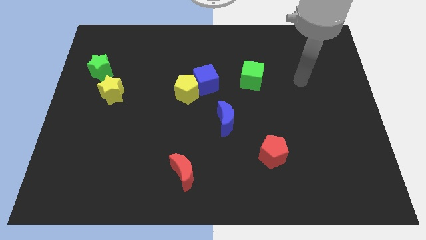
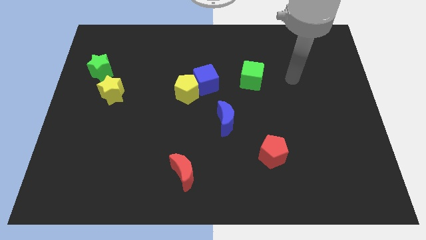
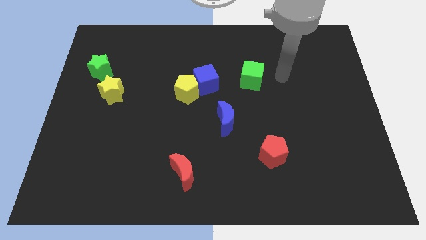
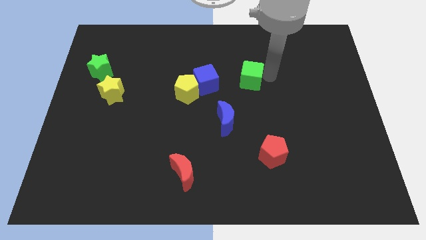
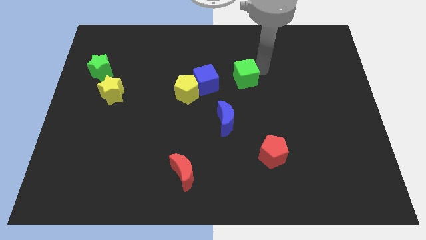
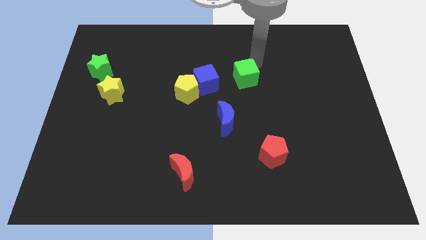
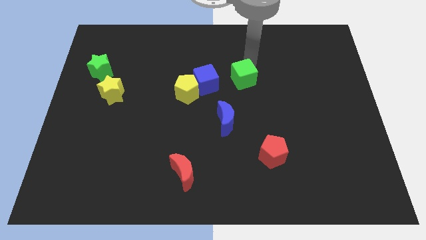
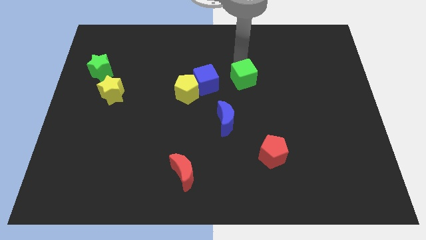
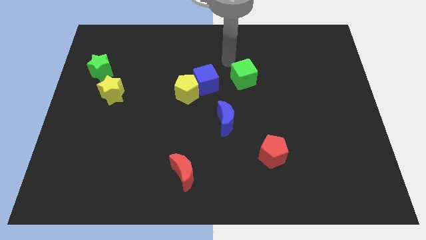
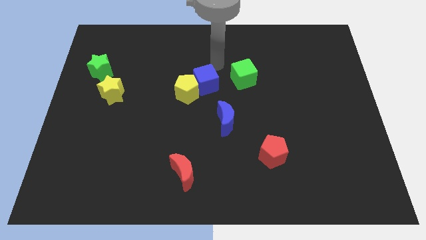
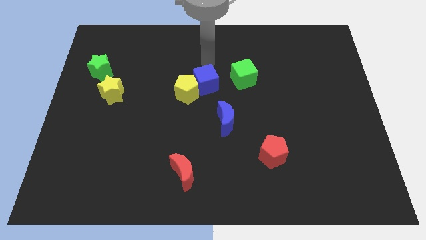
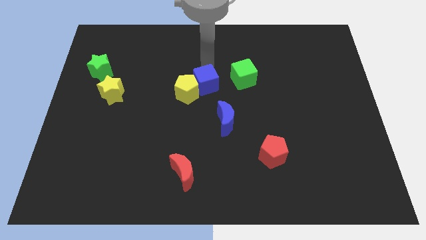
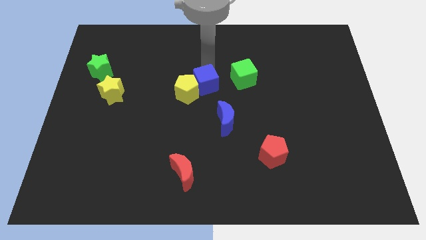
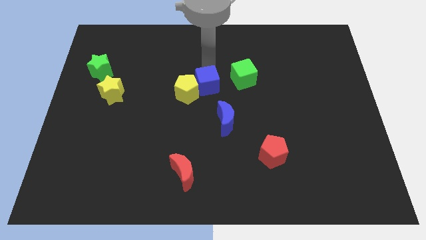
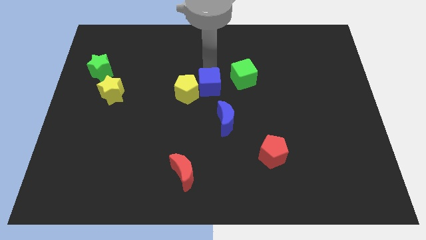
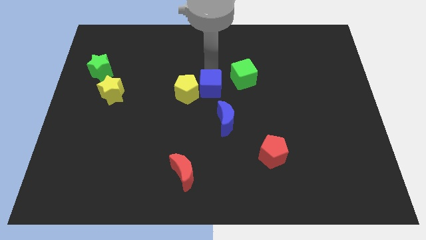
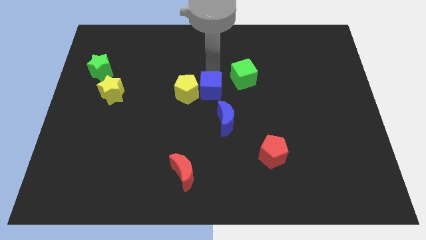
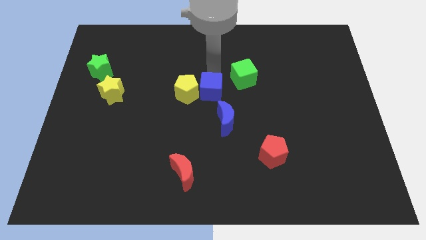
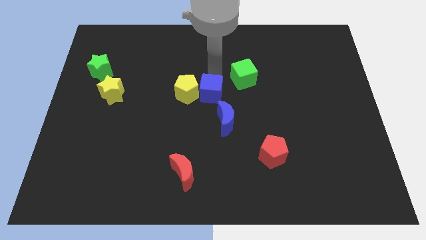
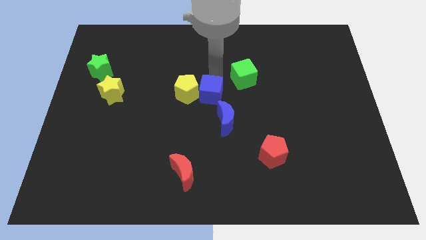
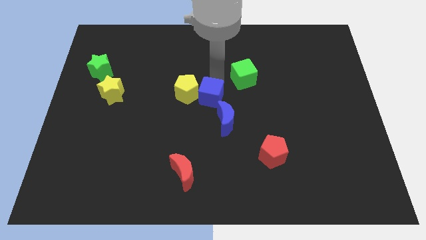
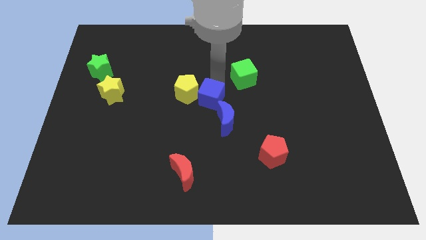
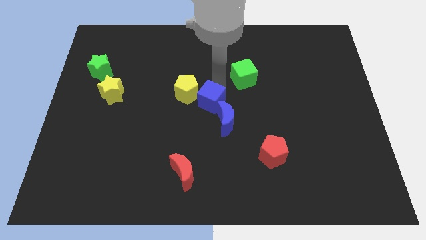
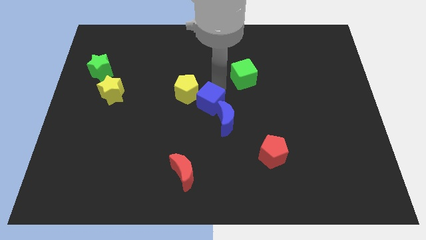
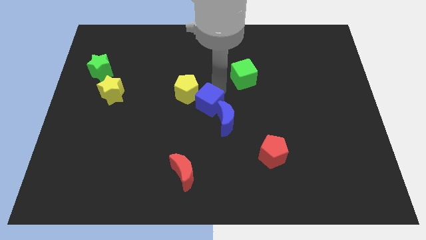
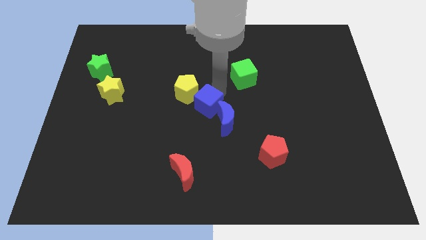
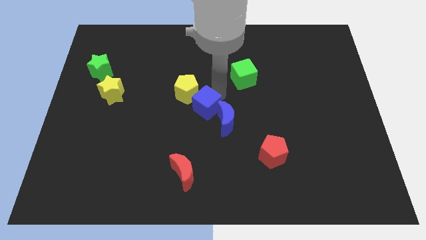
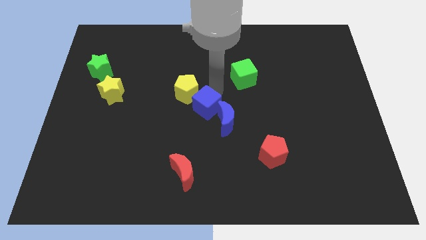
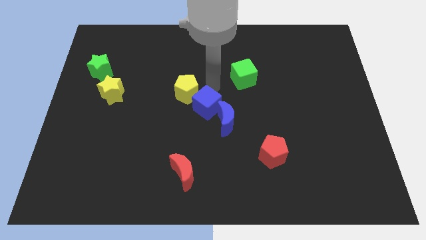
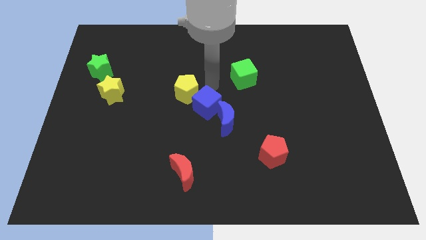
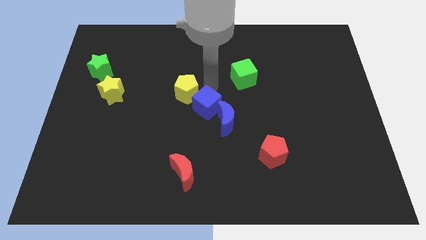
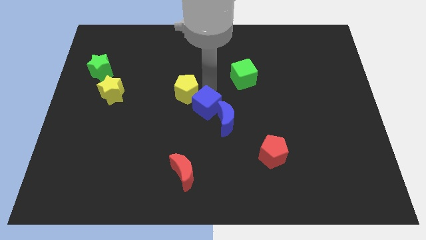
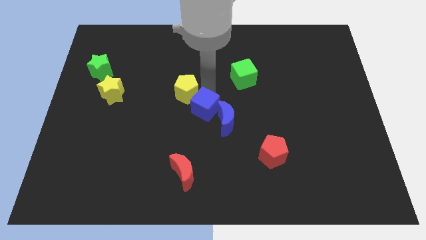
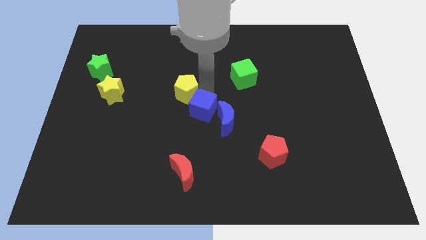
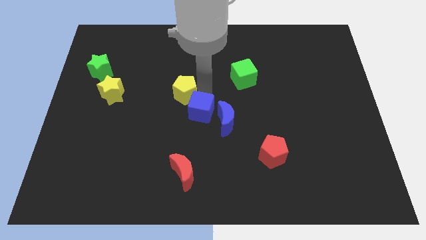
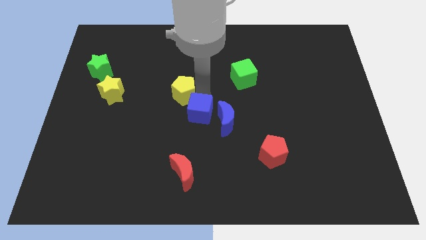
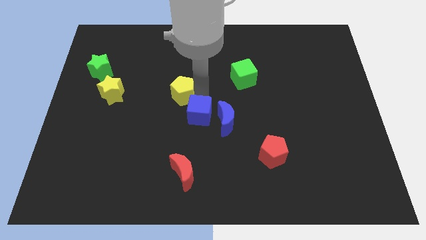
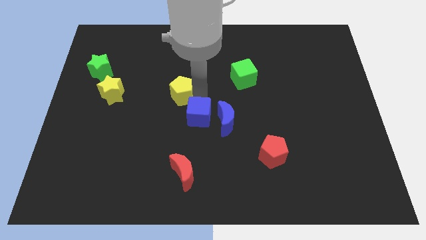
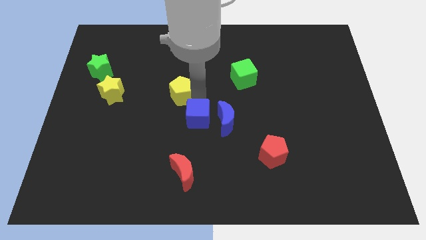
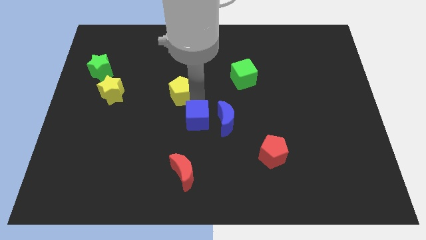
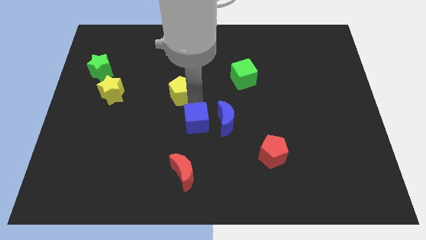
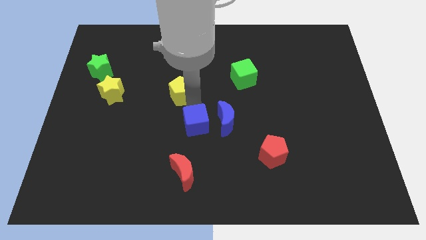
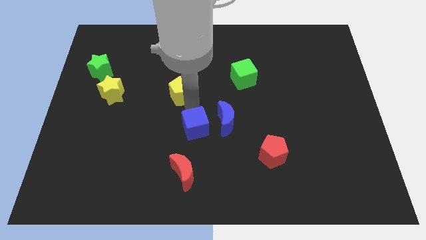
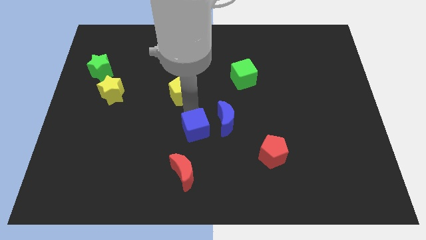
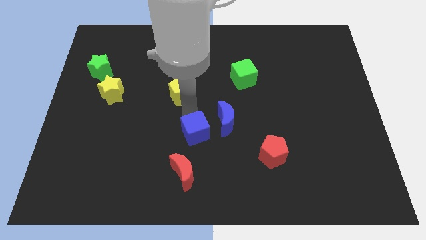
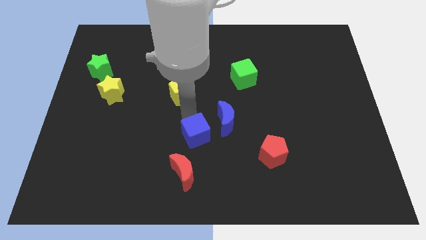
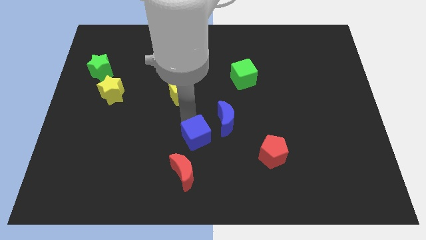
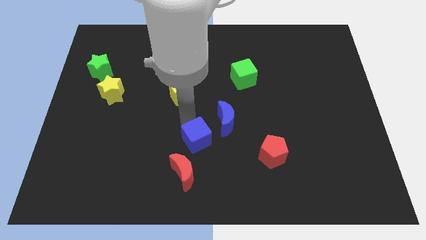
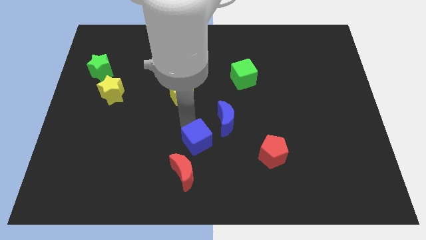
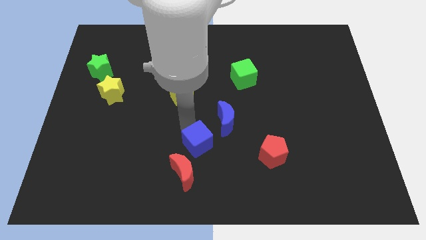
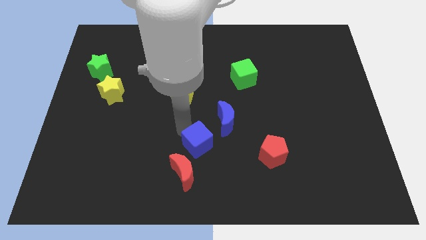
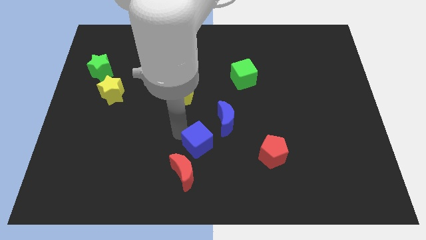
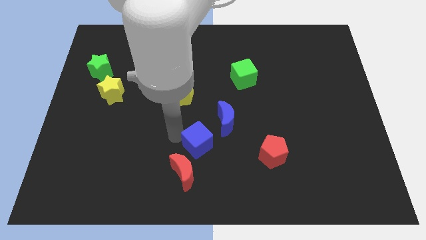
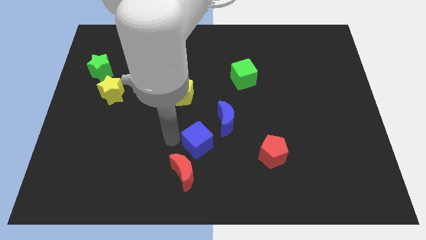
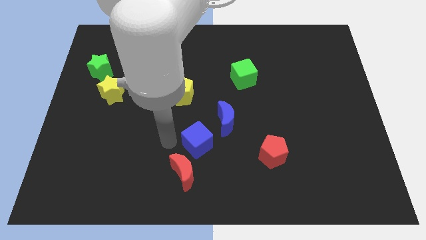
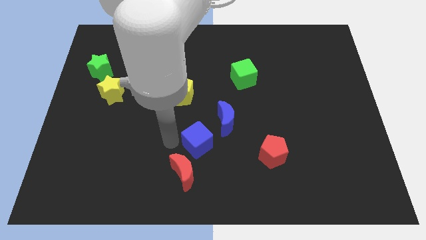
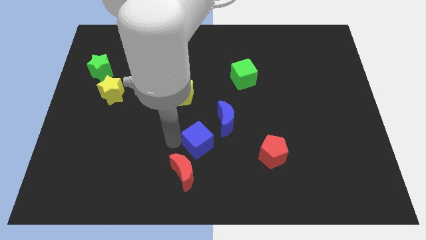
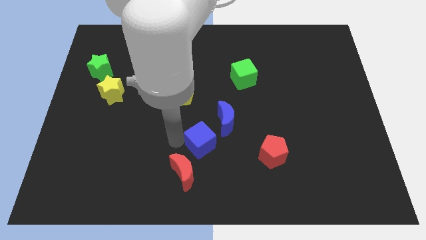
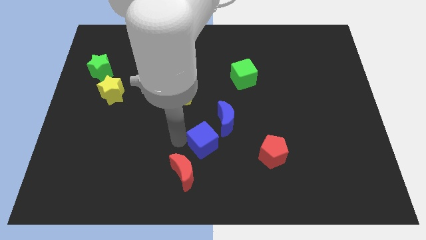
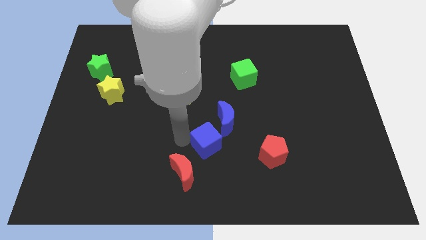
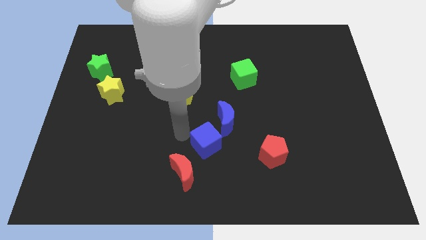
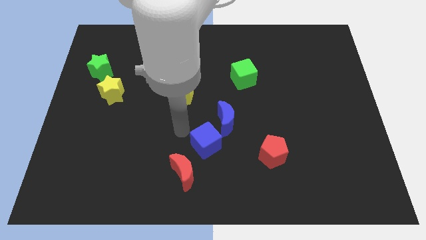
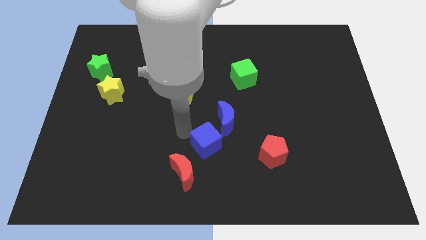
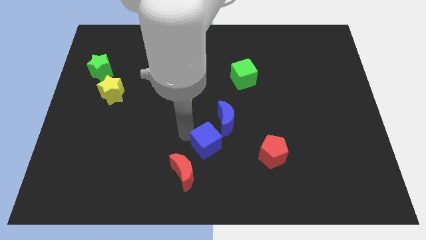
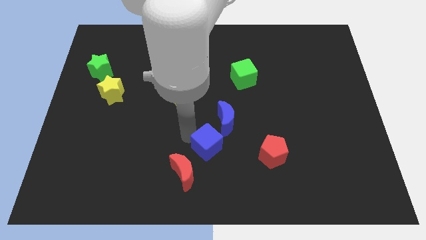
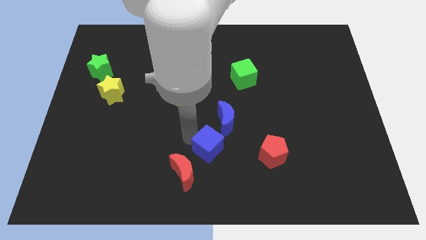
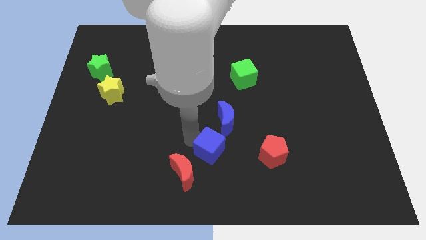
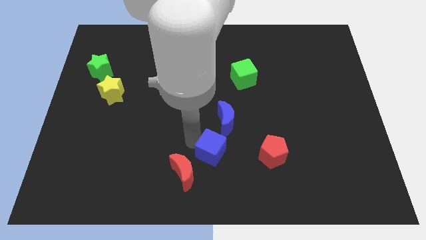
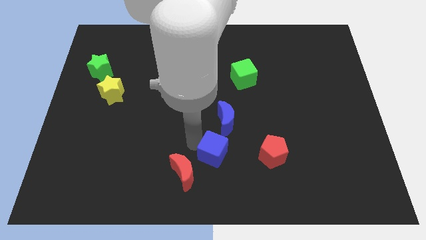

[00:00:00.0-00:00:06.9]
push the blue cube to the bottom side
